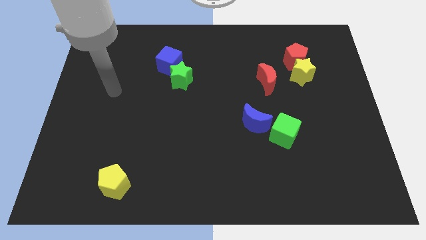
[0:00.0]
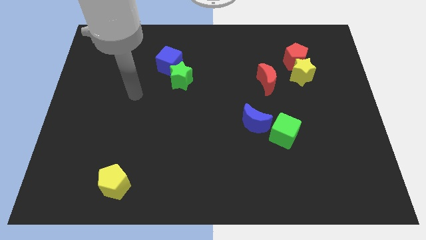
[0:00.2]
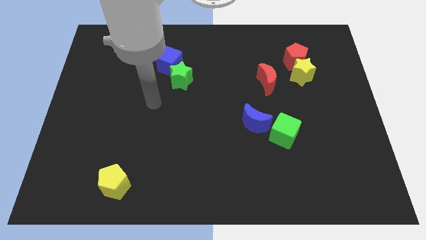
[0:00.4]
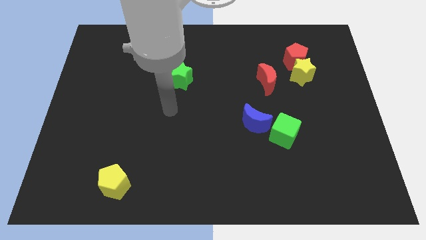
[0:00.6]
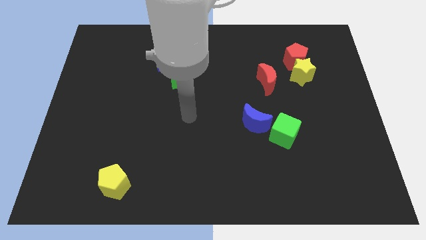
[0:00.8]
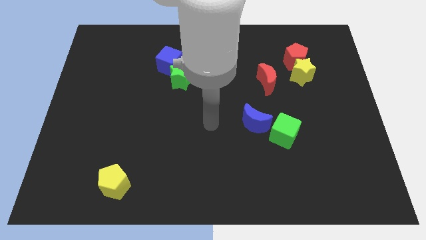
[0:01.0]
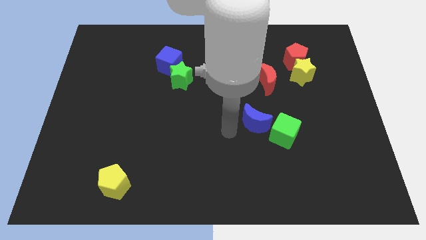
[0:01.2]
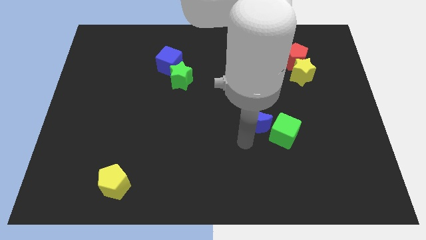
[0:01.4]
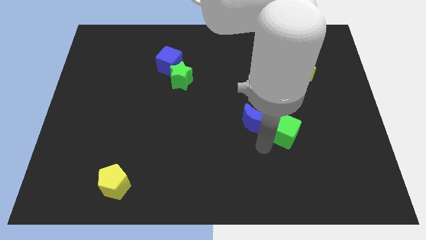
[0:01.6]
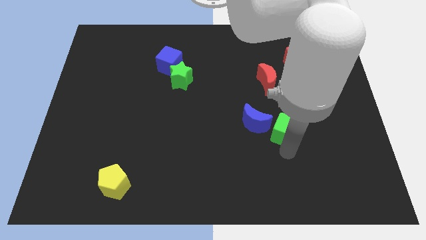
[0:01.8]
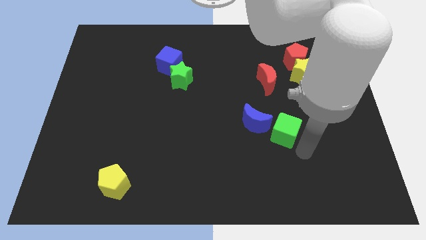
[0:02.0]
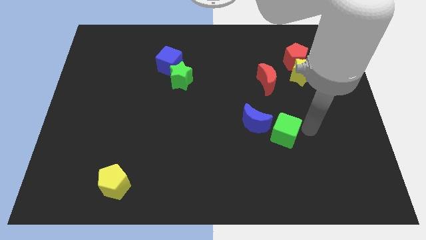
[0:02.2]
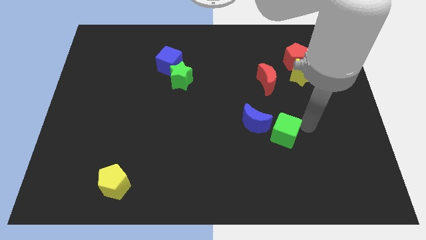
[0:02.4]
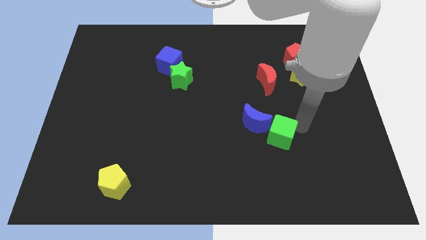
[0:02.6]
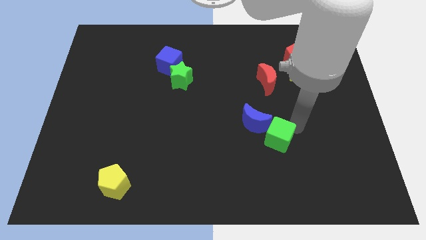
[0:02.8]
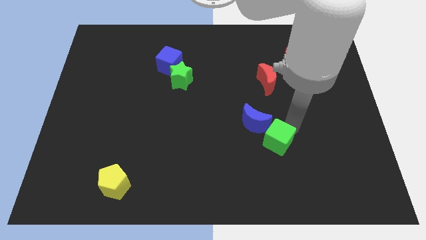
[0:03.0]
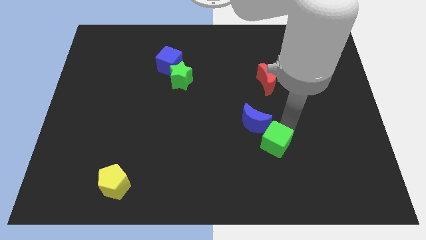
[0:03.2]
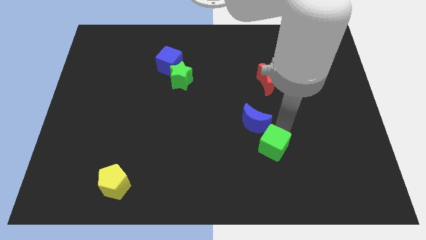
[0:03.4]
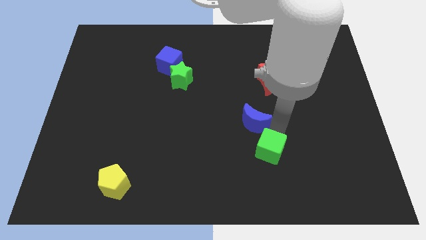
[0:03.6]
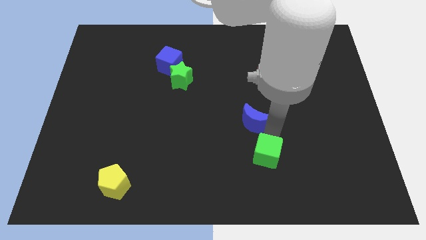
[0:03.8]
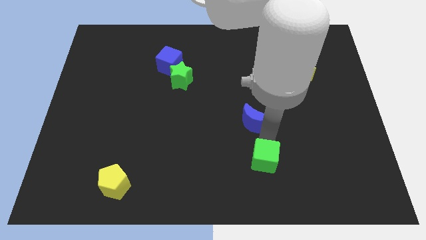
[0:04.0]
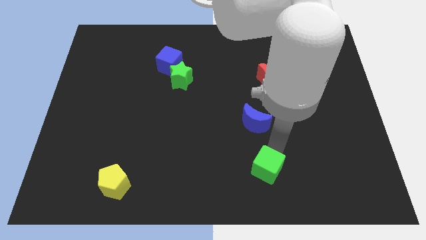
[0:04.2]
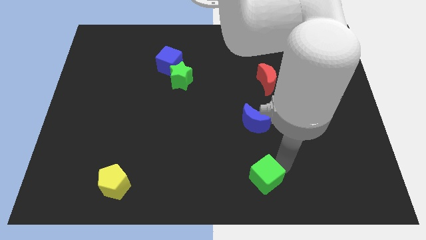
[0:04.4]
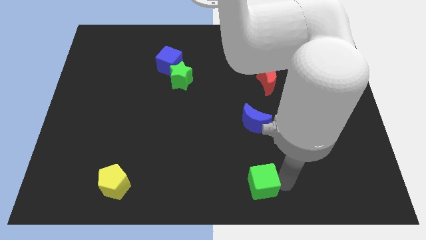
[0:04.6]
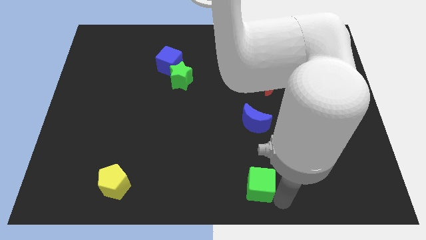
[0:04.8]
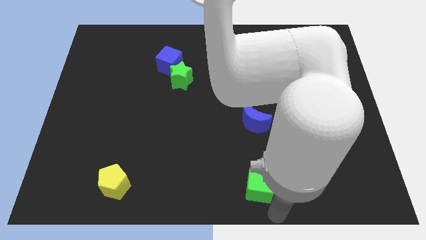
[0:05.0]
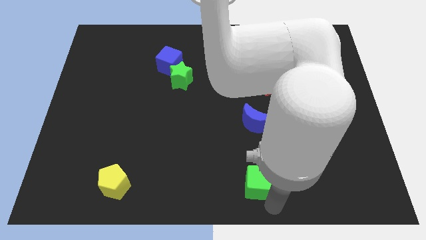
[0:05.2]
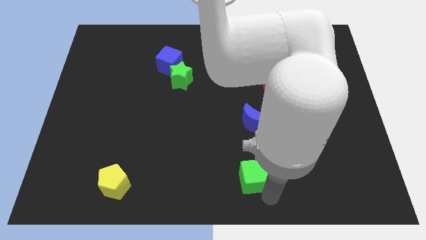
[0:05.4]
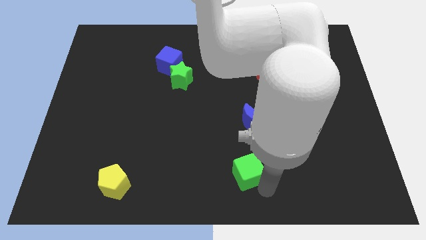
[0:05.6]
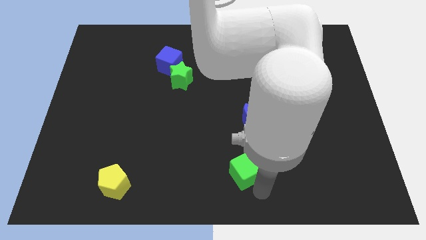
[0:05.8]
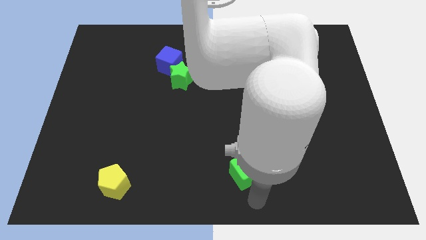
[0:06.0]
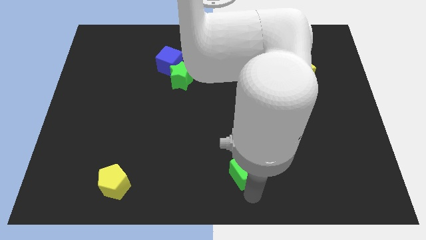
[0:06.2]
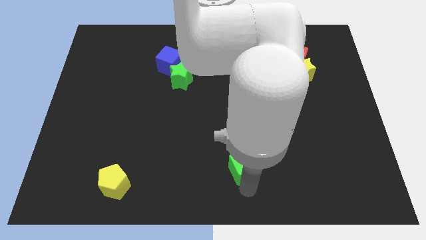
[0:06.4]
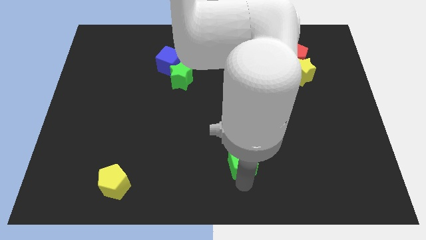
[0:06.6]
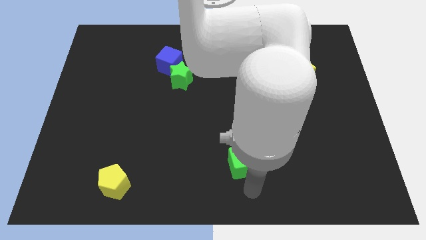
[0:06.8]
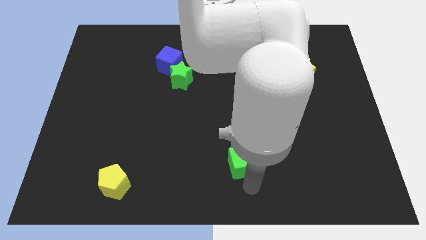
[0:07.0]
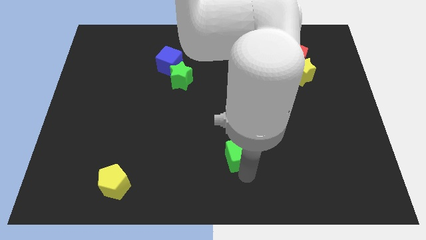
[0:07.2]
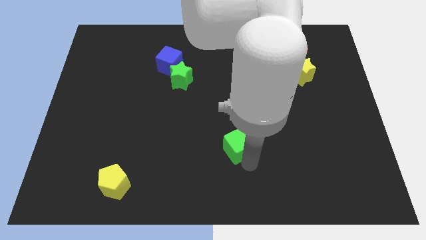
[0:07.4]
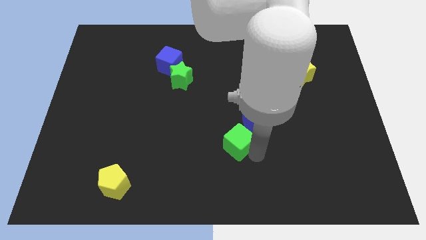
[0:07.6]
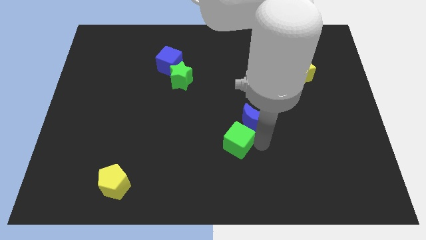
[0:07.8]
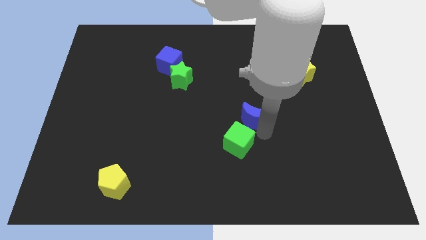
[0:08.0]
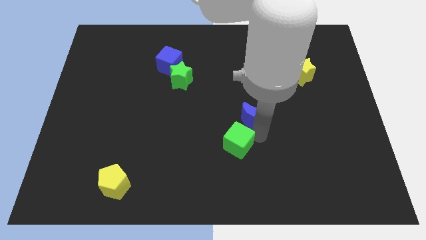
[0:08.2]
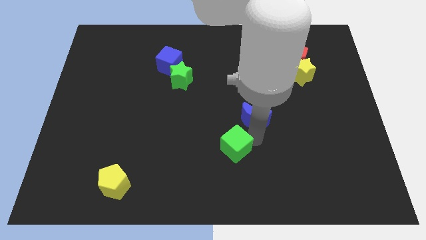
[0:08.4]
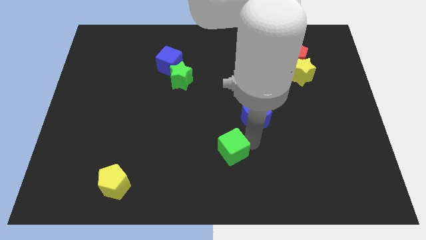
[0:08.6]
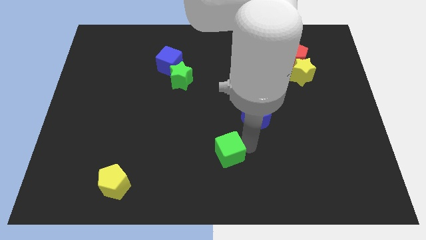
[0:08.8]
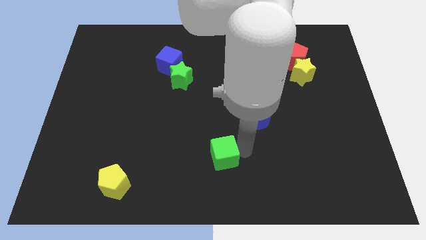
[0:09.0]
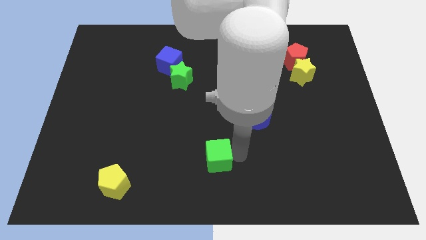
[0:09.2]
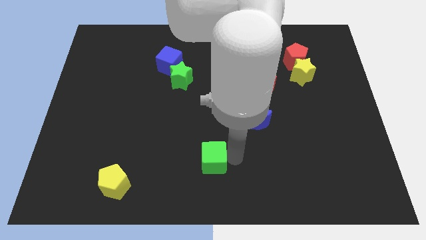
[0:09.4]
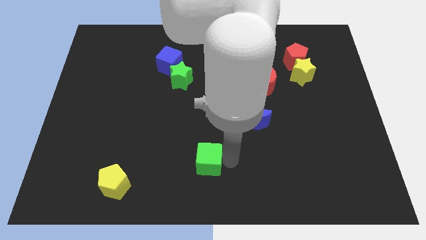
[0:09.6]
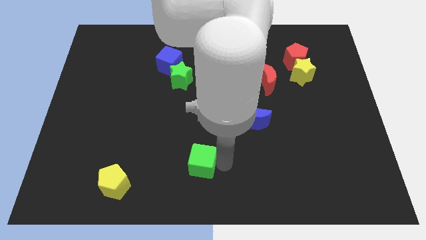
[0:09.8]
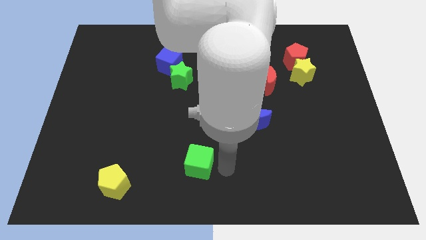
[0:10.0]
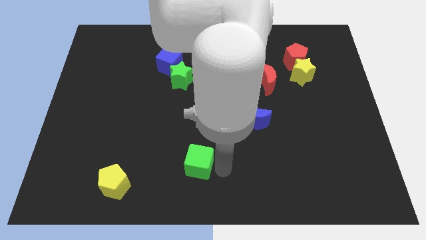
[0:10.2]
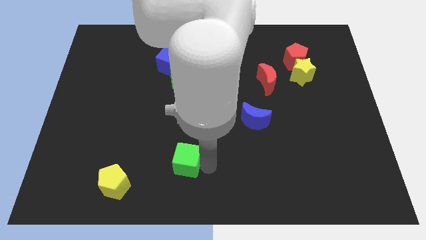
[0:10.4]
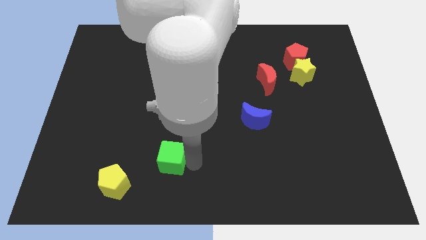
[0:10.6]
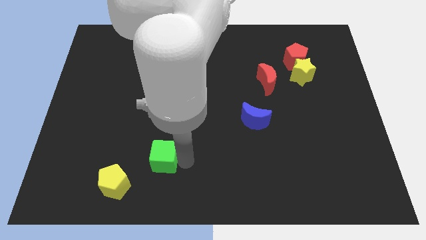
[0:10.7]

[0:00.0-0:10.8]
put the green cube to the top right side of the yellow pentagon

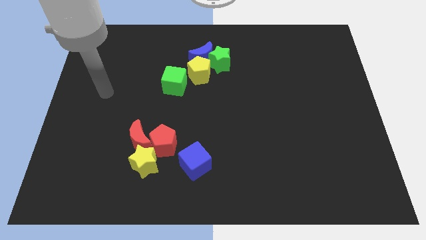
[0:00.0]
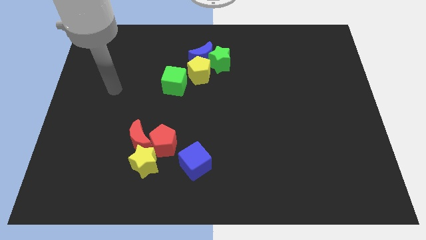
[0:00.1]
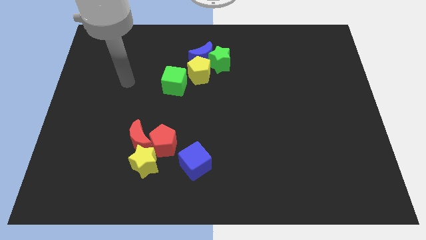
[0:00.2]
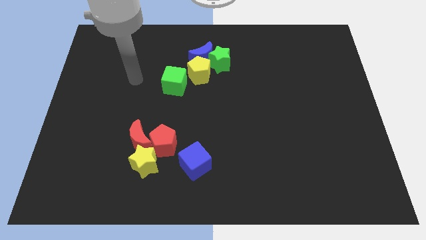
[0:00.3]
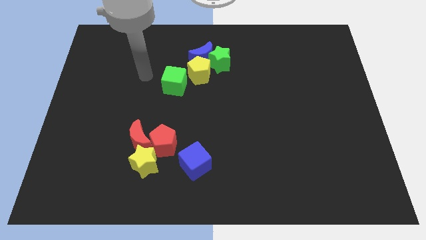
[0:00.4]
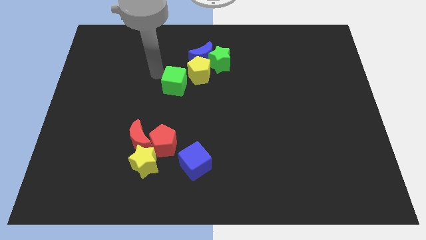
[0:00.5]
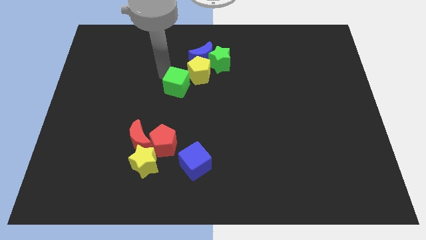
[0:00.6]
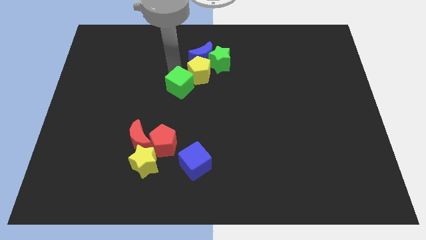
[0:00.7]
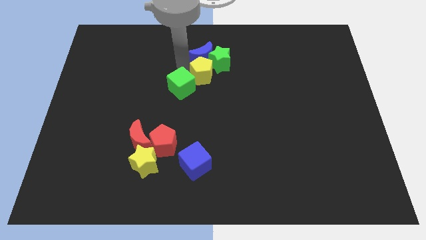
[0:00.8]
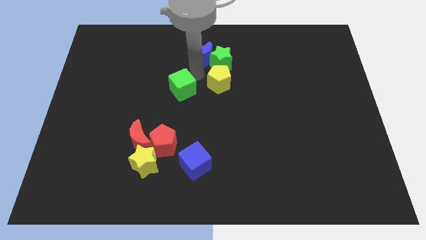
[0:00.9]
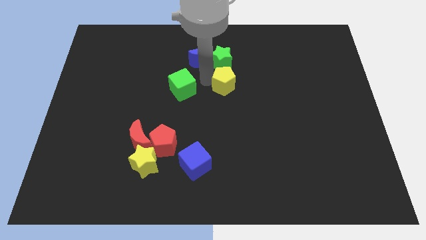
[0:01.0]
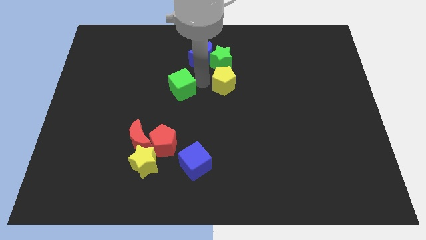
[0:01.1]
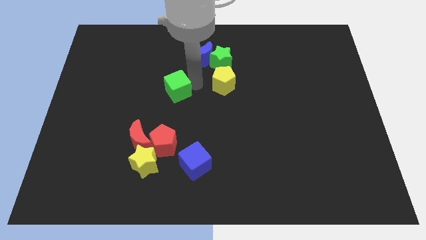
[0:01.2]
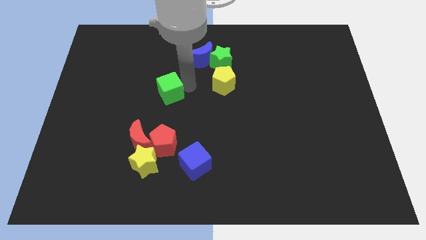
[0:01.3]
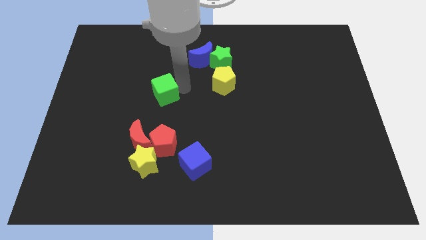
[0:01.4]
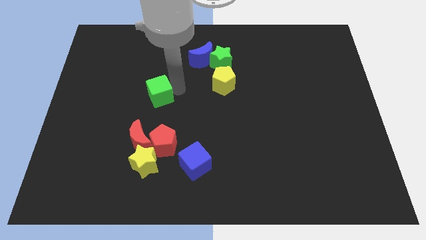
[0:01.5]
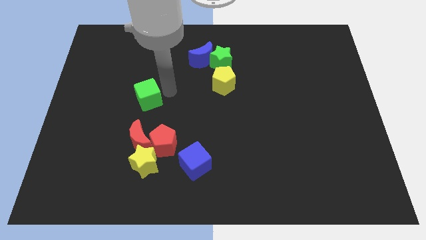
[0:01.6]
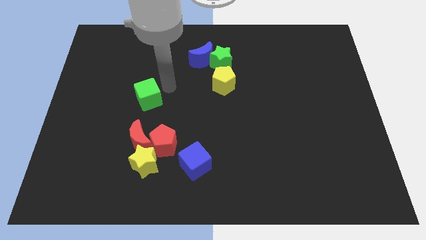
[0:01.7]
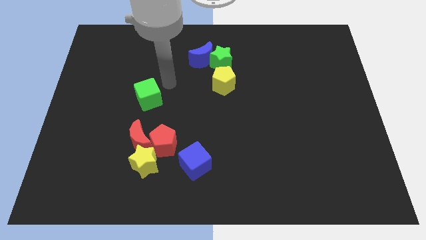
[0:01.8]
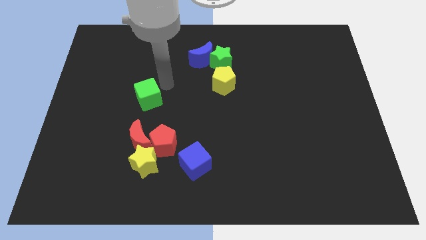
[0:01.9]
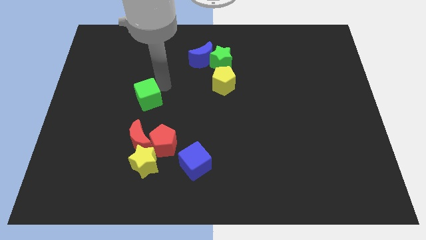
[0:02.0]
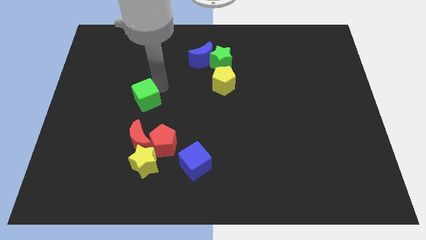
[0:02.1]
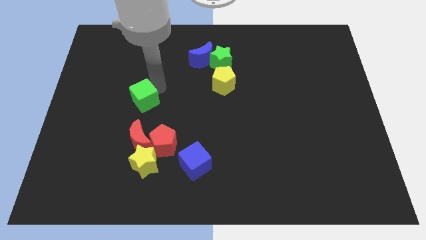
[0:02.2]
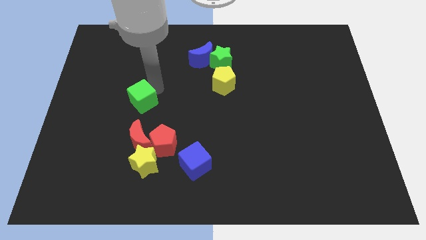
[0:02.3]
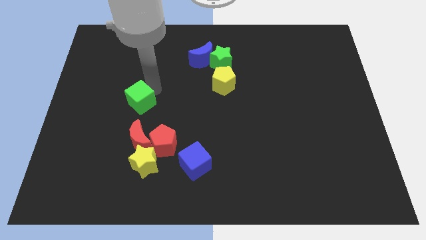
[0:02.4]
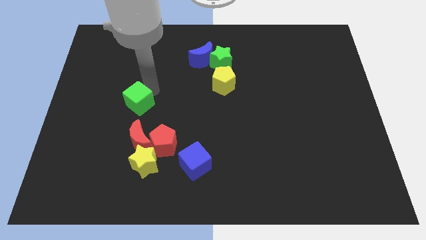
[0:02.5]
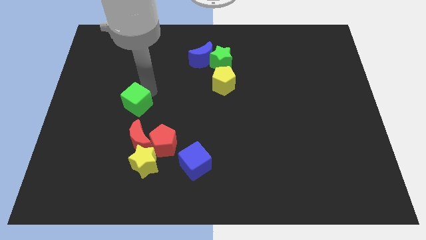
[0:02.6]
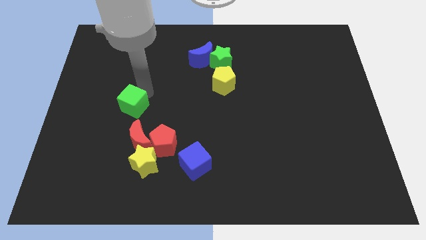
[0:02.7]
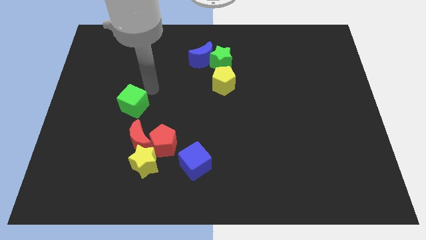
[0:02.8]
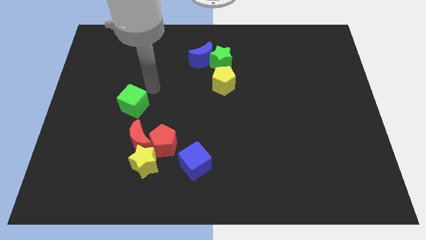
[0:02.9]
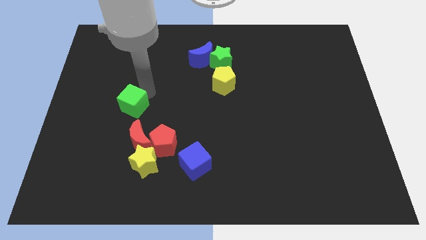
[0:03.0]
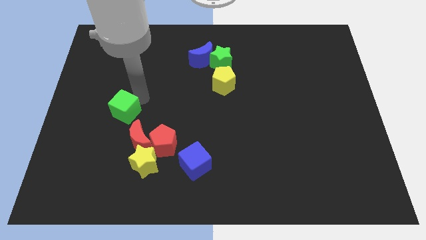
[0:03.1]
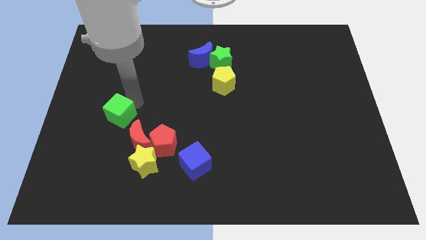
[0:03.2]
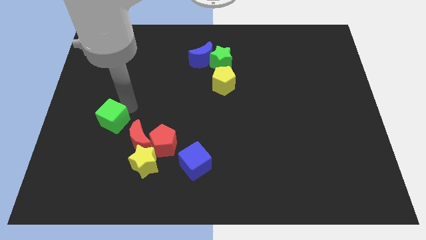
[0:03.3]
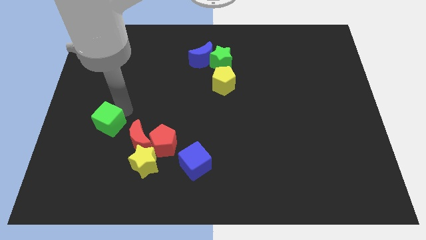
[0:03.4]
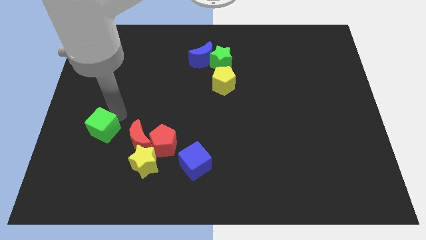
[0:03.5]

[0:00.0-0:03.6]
push the green cube left of the red moon
